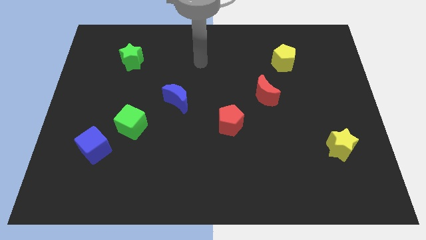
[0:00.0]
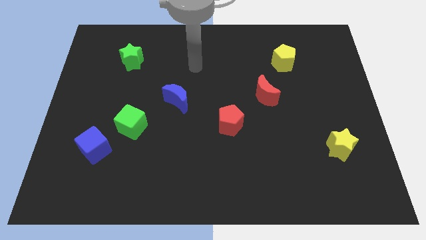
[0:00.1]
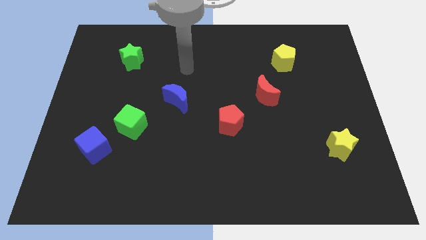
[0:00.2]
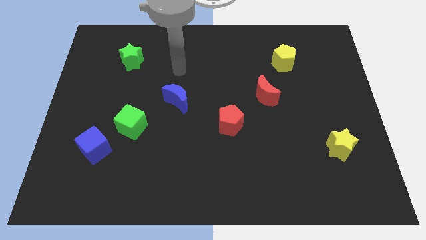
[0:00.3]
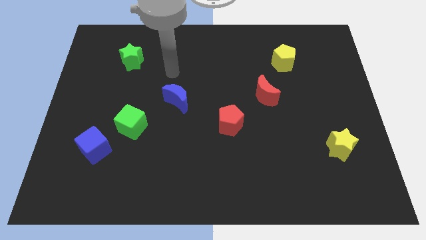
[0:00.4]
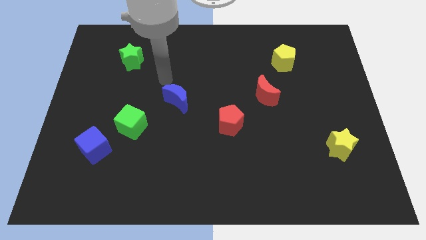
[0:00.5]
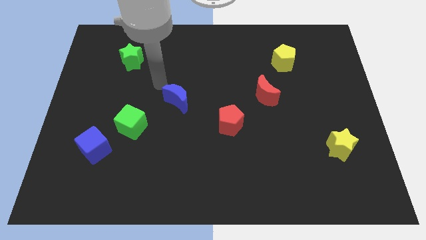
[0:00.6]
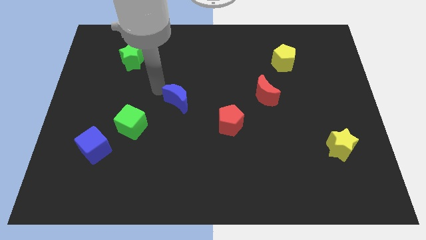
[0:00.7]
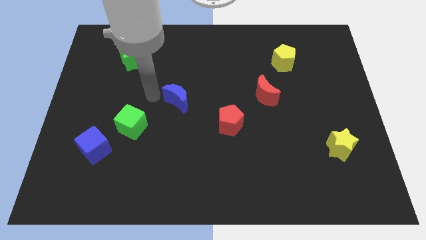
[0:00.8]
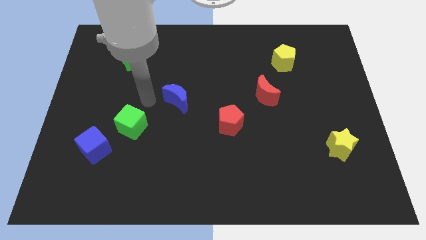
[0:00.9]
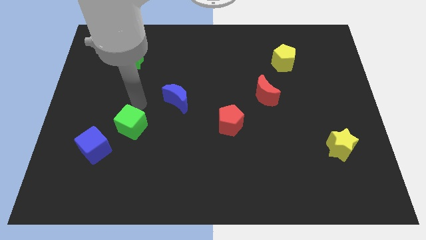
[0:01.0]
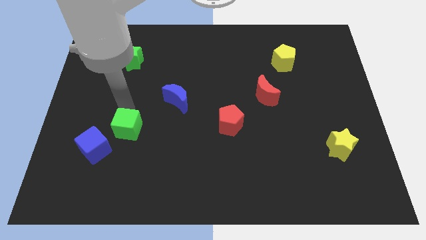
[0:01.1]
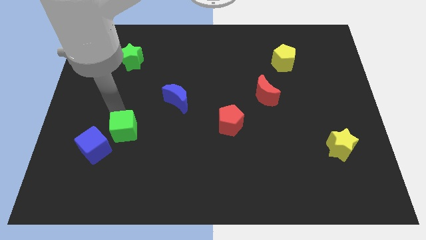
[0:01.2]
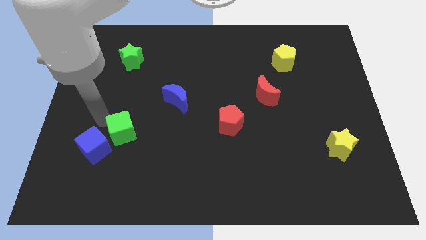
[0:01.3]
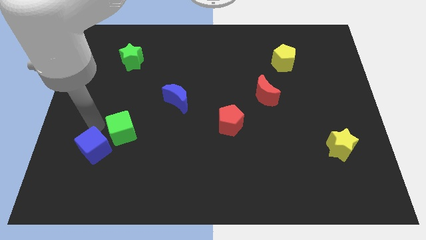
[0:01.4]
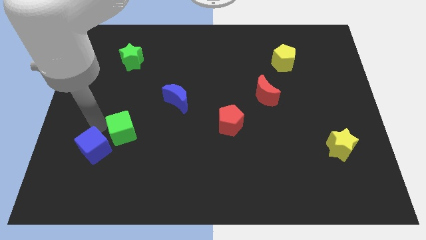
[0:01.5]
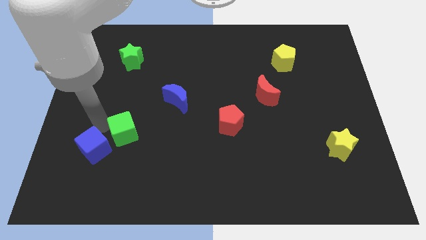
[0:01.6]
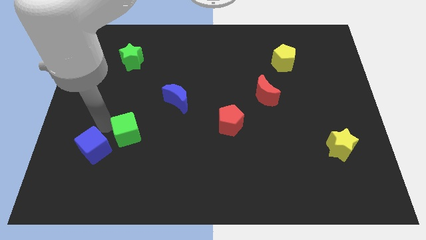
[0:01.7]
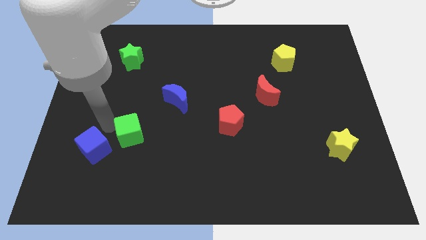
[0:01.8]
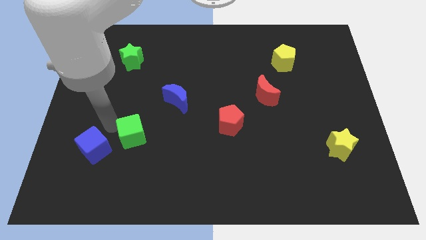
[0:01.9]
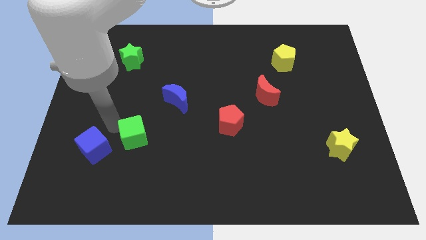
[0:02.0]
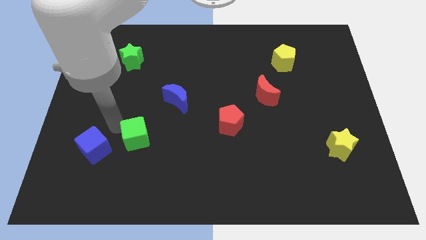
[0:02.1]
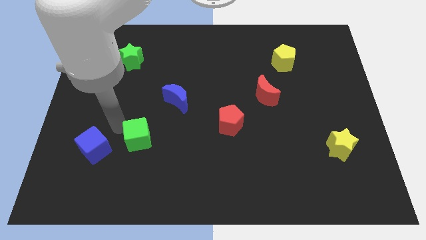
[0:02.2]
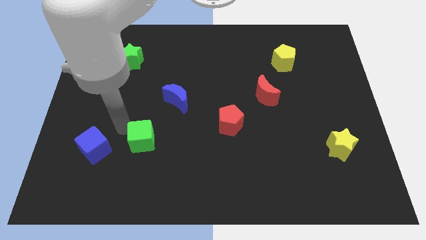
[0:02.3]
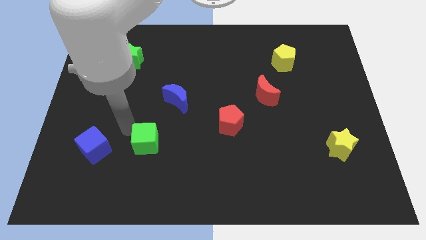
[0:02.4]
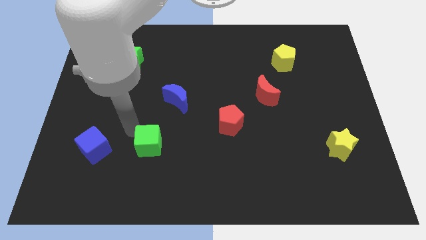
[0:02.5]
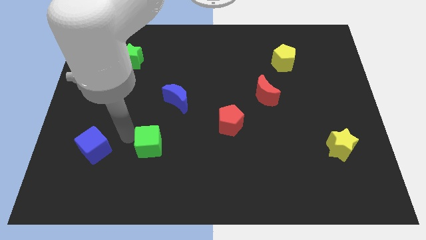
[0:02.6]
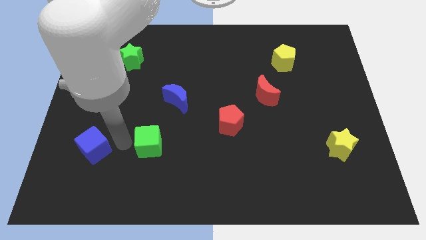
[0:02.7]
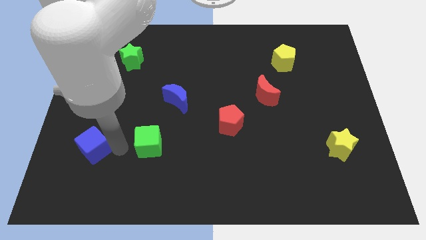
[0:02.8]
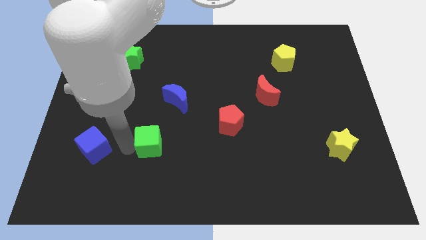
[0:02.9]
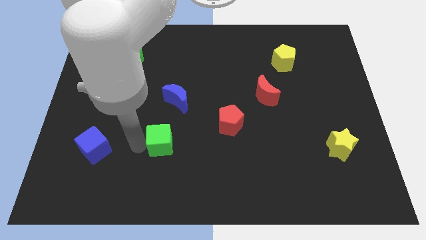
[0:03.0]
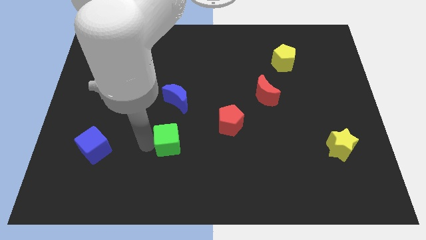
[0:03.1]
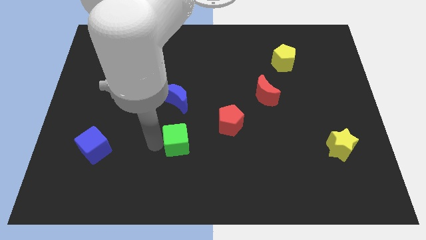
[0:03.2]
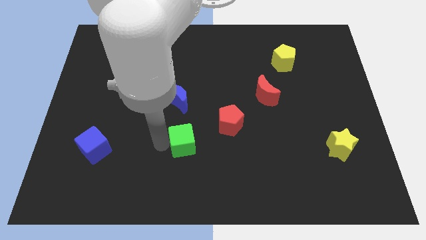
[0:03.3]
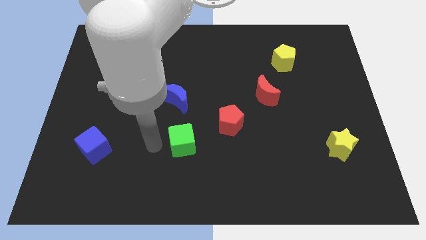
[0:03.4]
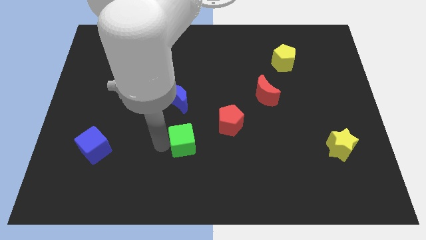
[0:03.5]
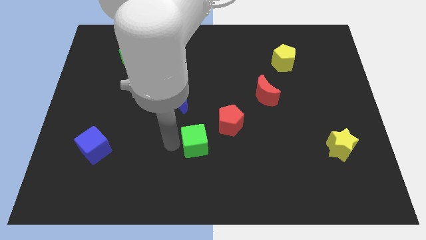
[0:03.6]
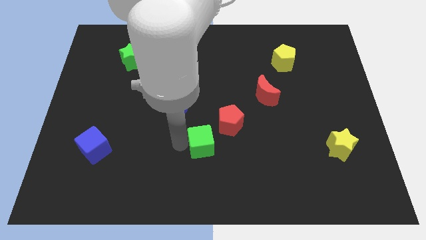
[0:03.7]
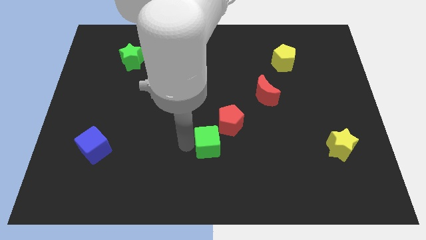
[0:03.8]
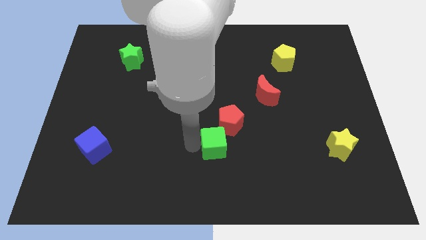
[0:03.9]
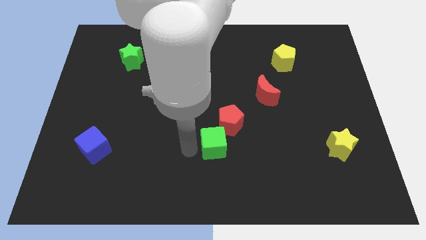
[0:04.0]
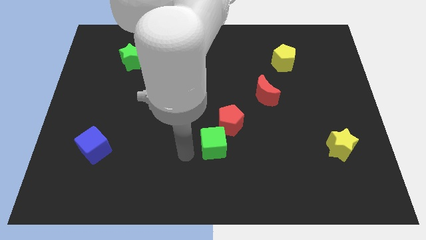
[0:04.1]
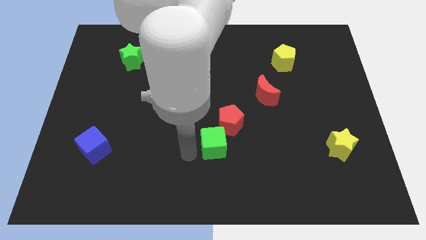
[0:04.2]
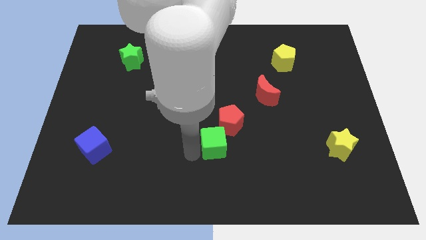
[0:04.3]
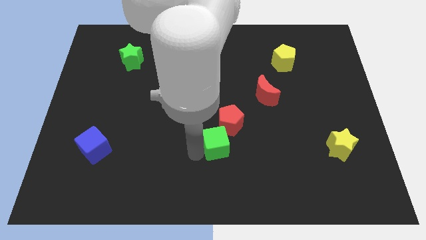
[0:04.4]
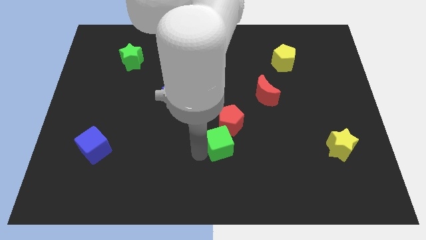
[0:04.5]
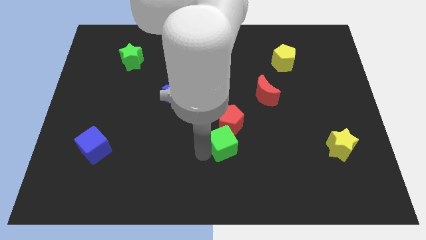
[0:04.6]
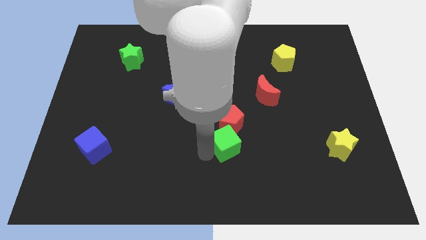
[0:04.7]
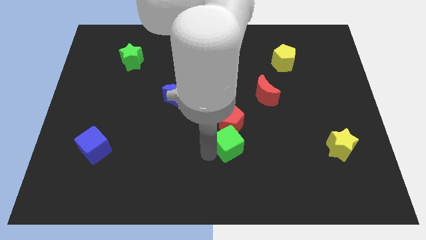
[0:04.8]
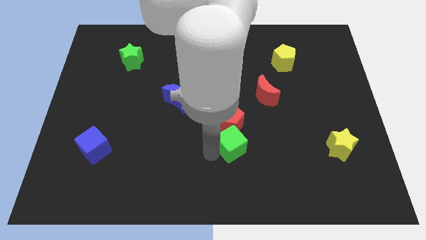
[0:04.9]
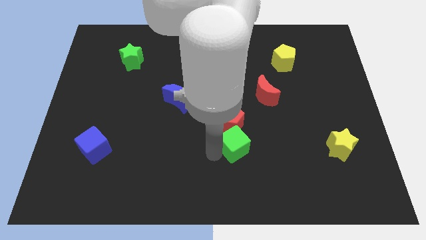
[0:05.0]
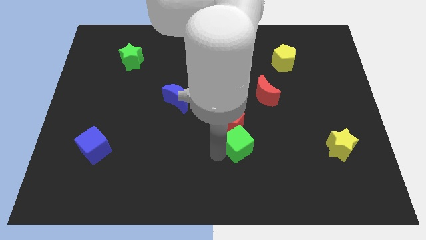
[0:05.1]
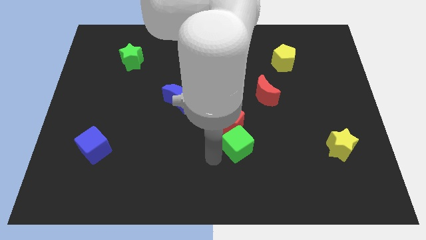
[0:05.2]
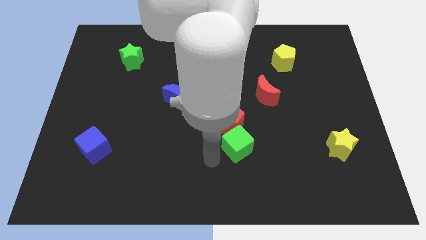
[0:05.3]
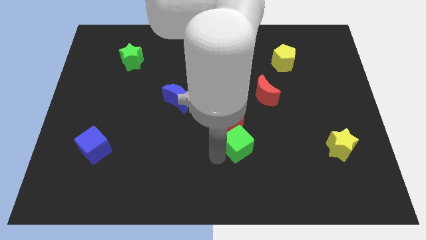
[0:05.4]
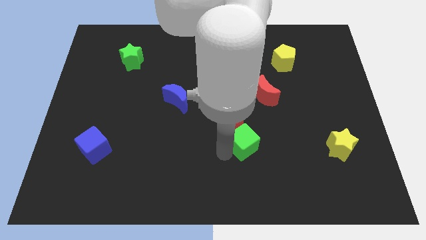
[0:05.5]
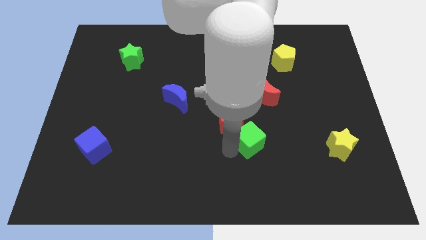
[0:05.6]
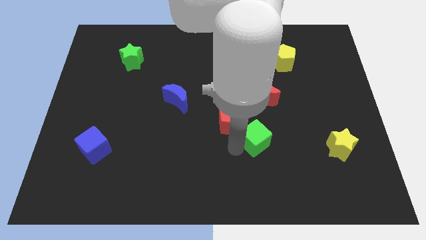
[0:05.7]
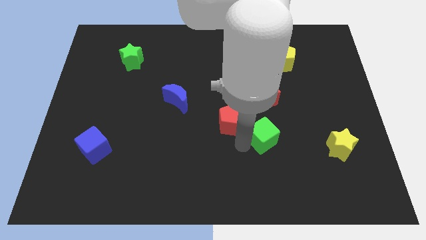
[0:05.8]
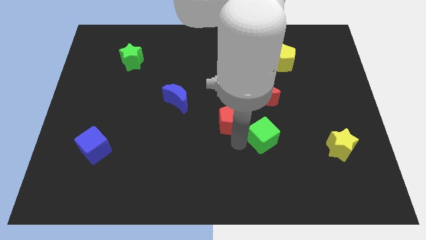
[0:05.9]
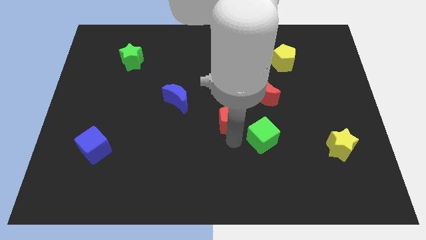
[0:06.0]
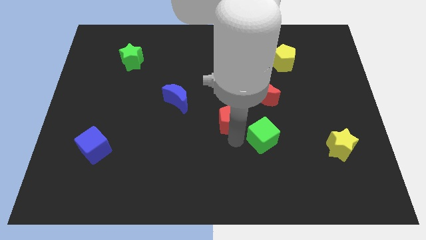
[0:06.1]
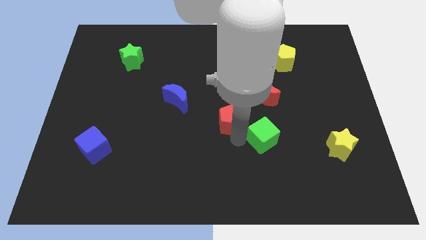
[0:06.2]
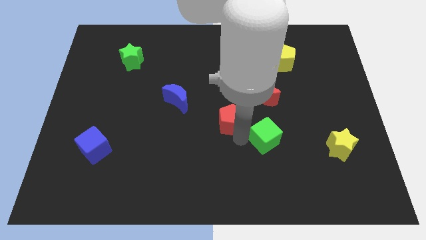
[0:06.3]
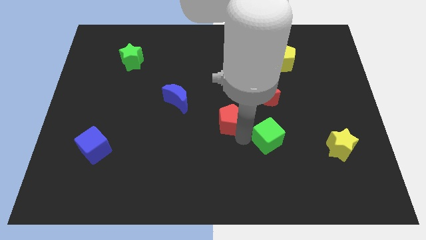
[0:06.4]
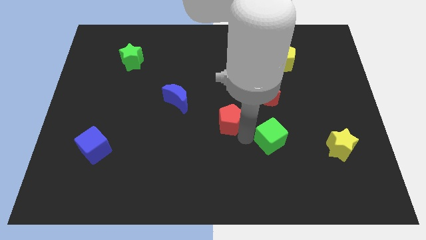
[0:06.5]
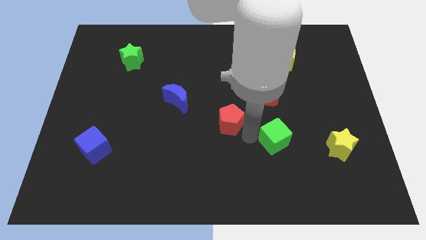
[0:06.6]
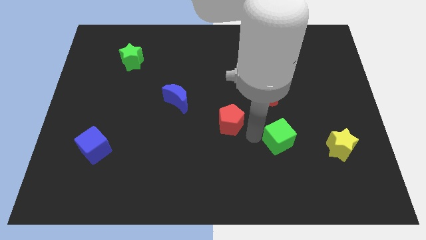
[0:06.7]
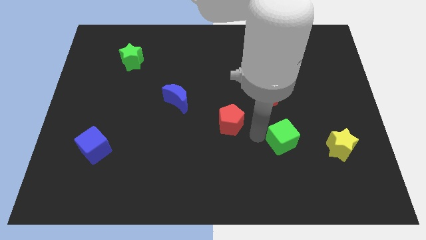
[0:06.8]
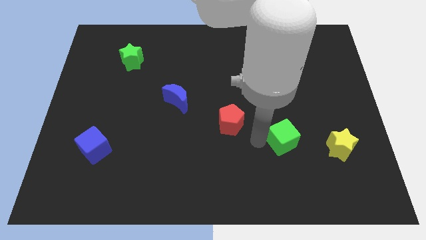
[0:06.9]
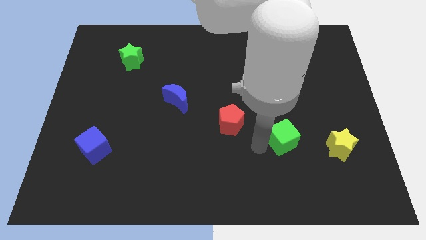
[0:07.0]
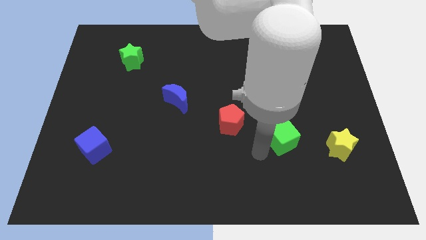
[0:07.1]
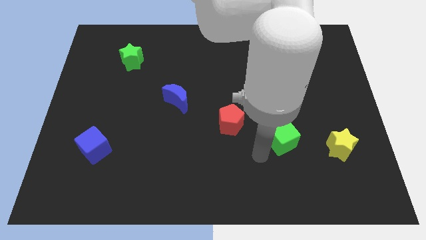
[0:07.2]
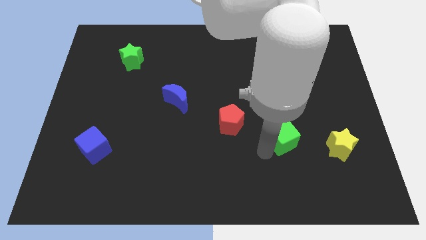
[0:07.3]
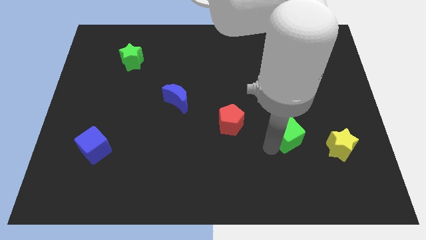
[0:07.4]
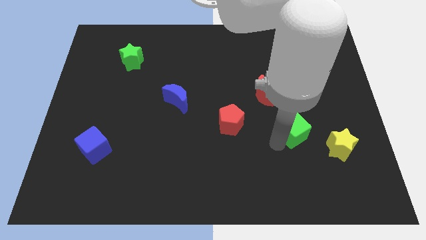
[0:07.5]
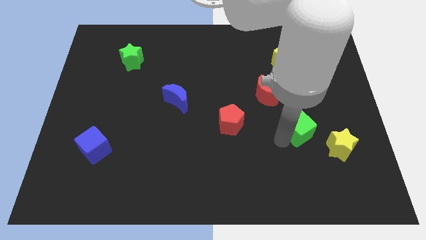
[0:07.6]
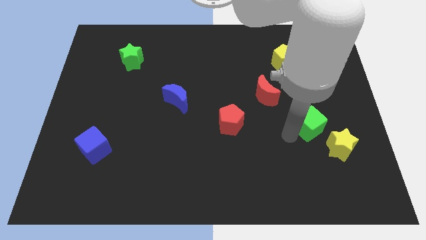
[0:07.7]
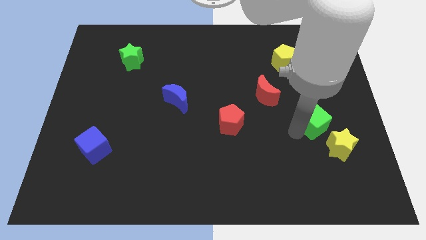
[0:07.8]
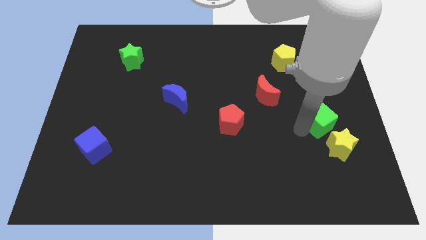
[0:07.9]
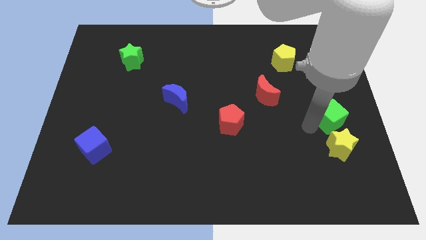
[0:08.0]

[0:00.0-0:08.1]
move the green cube to the right side
